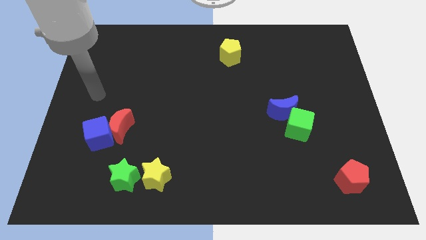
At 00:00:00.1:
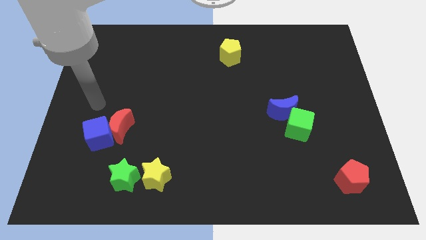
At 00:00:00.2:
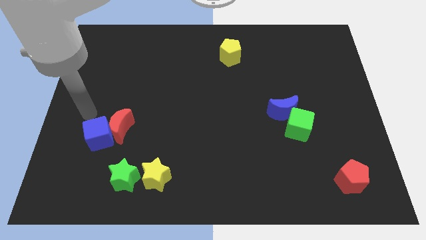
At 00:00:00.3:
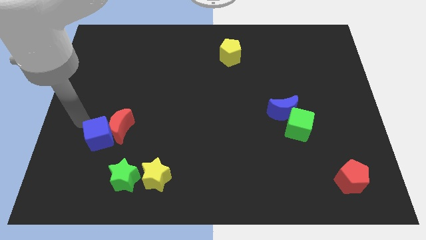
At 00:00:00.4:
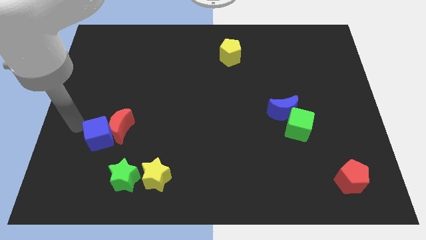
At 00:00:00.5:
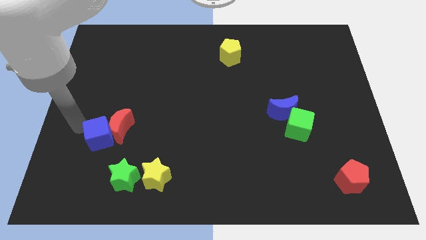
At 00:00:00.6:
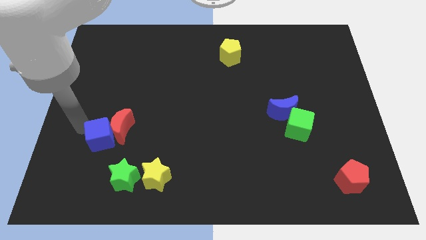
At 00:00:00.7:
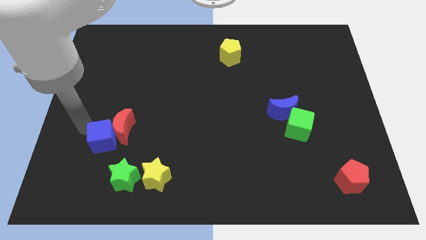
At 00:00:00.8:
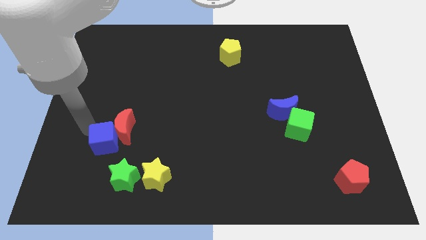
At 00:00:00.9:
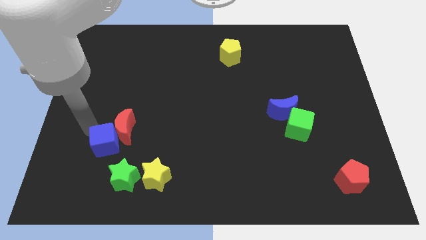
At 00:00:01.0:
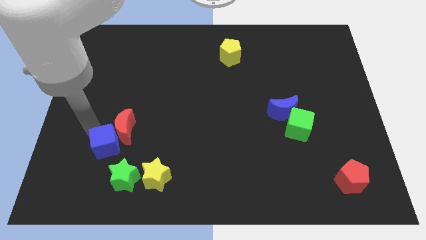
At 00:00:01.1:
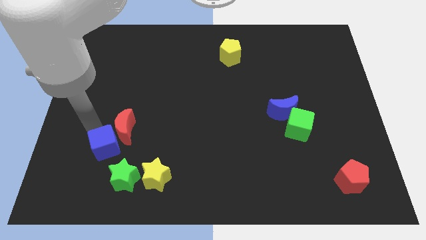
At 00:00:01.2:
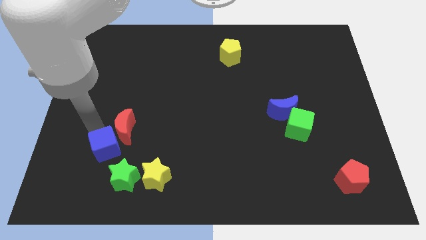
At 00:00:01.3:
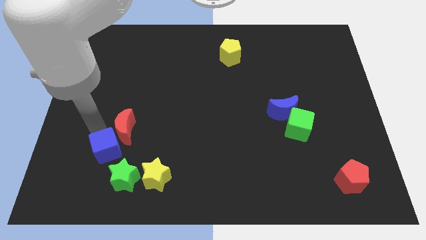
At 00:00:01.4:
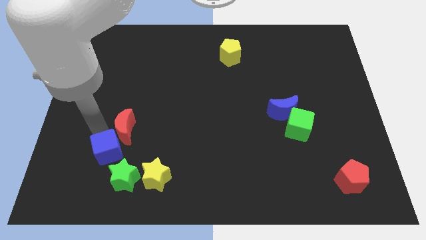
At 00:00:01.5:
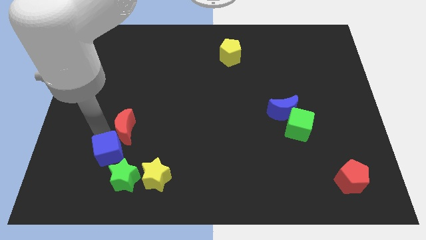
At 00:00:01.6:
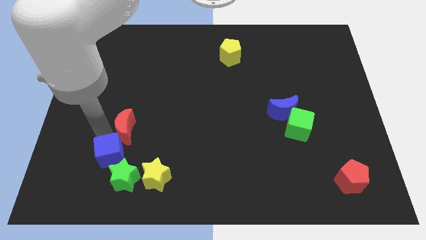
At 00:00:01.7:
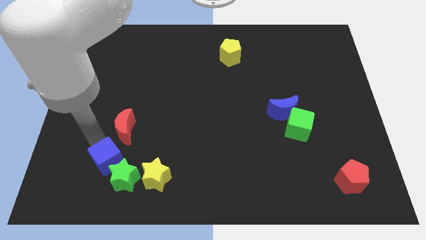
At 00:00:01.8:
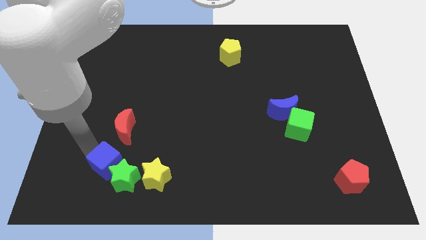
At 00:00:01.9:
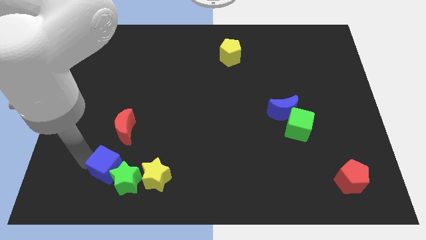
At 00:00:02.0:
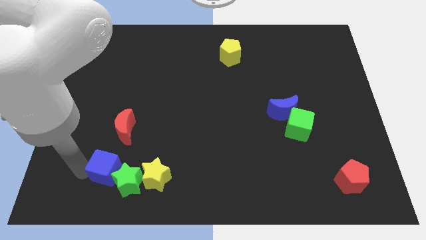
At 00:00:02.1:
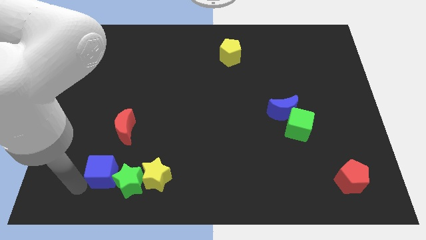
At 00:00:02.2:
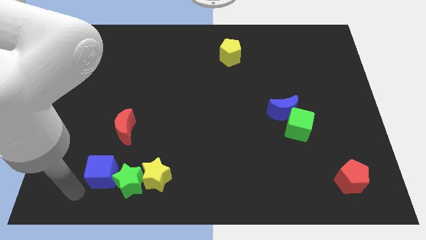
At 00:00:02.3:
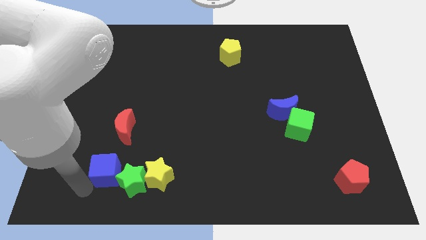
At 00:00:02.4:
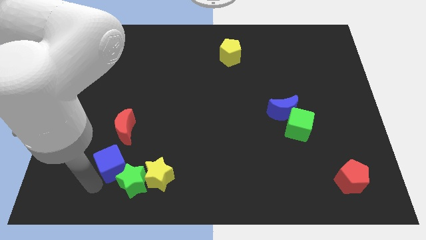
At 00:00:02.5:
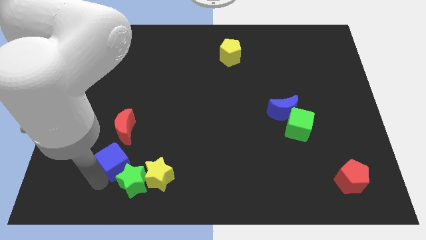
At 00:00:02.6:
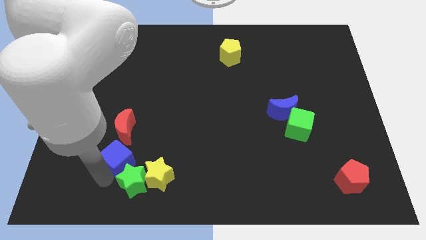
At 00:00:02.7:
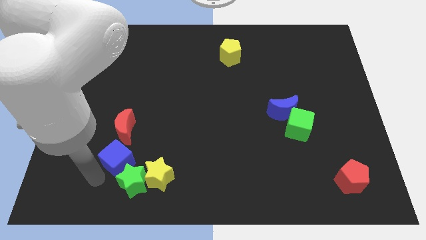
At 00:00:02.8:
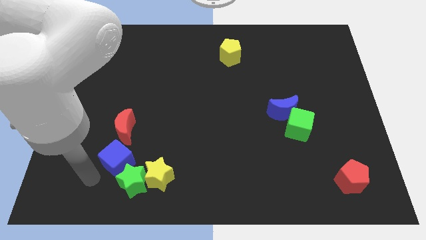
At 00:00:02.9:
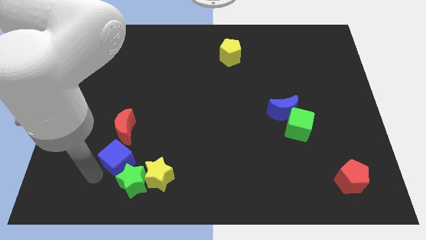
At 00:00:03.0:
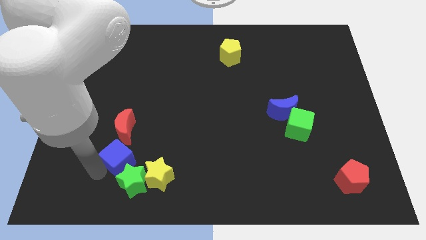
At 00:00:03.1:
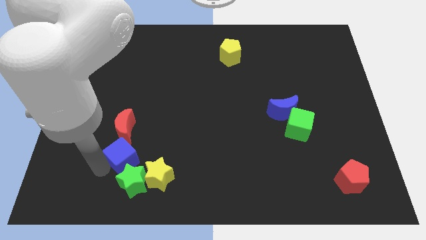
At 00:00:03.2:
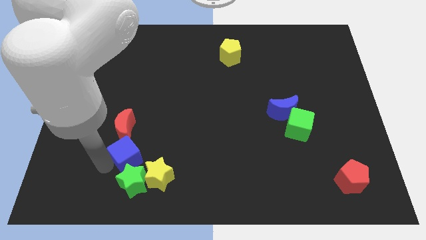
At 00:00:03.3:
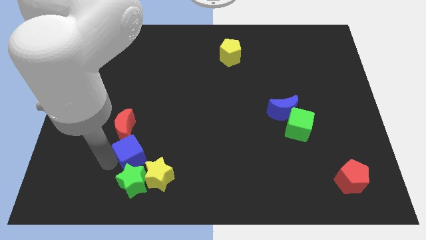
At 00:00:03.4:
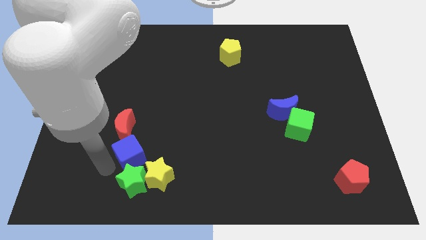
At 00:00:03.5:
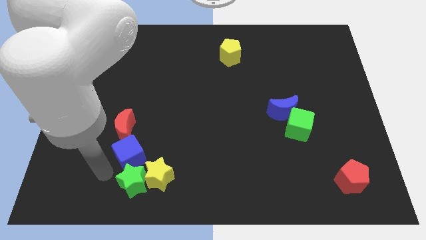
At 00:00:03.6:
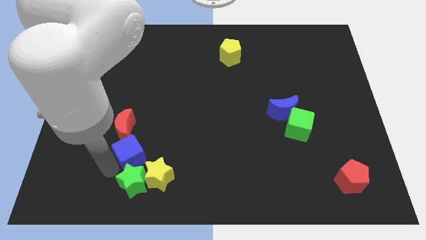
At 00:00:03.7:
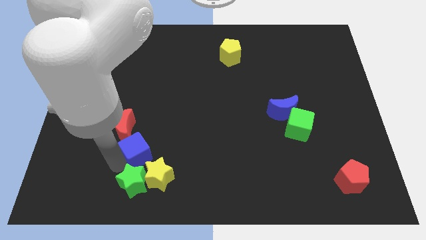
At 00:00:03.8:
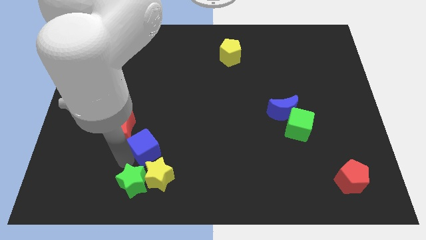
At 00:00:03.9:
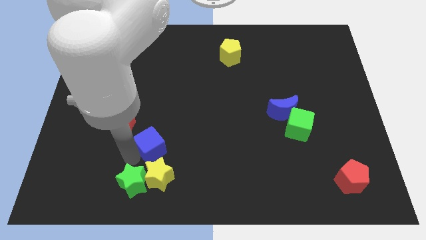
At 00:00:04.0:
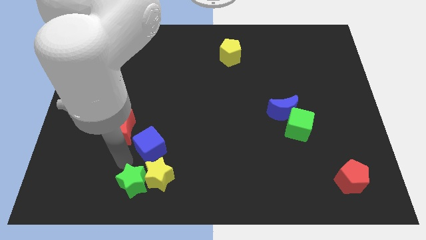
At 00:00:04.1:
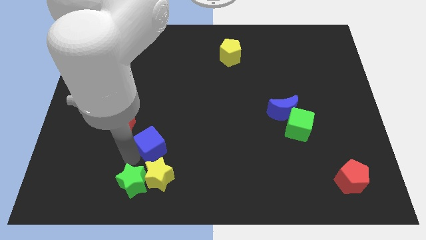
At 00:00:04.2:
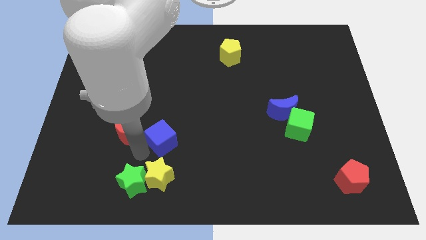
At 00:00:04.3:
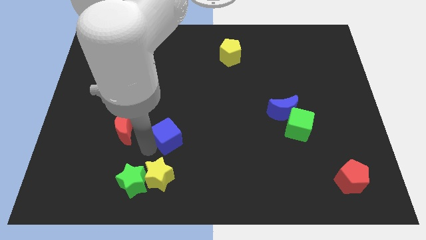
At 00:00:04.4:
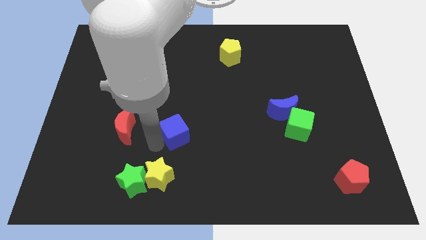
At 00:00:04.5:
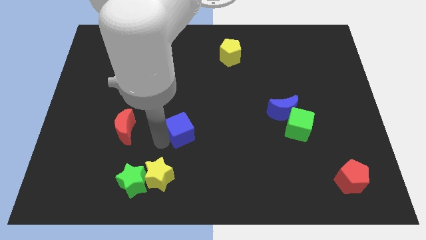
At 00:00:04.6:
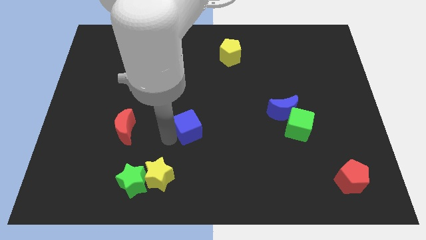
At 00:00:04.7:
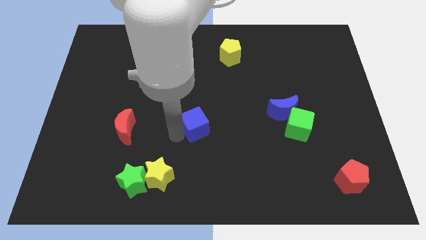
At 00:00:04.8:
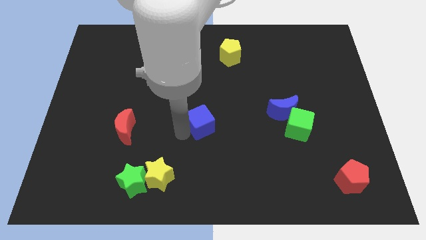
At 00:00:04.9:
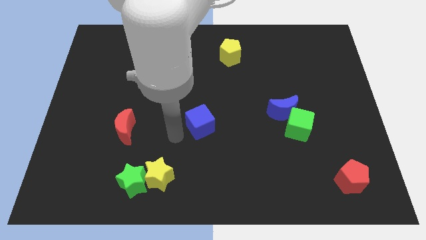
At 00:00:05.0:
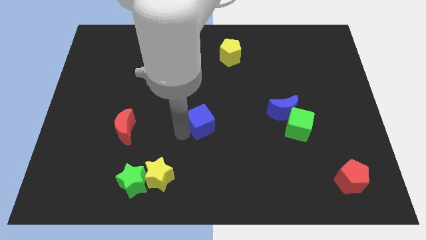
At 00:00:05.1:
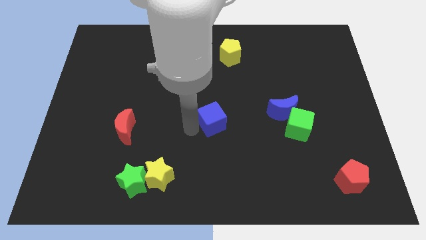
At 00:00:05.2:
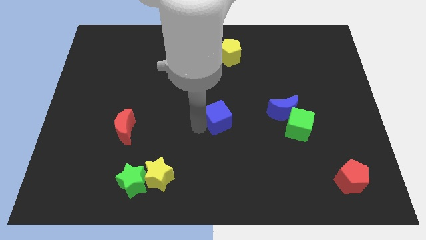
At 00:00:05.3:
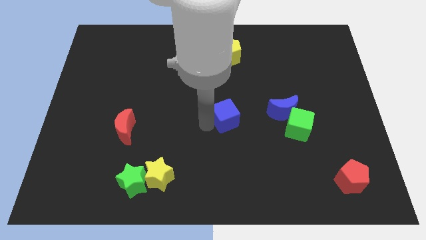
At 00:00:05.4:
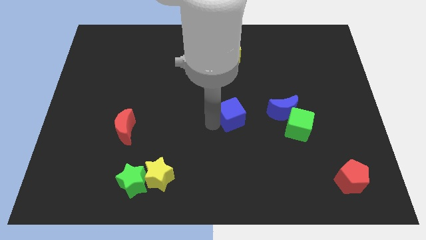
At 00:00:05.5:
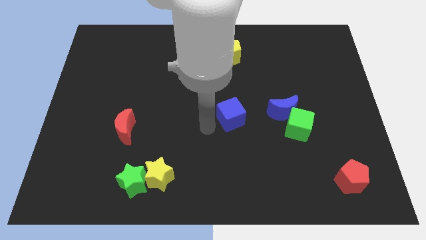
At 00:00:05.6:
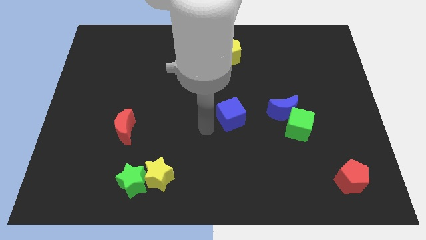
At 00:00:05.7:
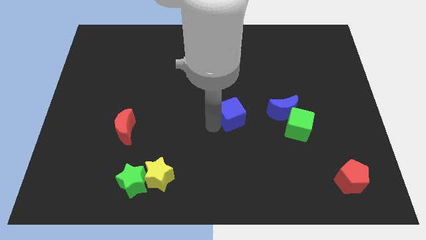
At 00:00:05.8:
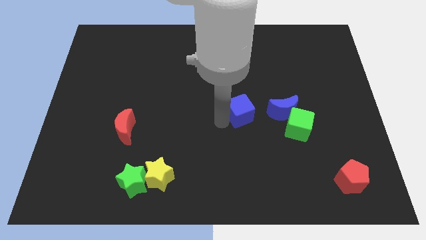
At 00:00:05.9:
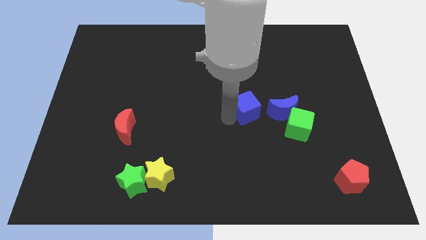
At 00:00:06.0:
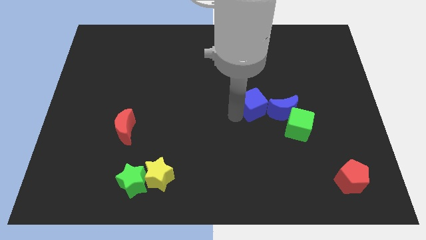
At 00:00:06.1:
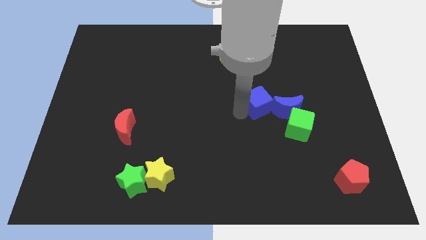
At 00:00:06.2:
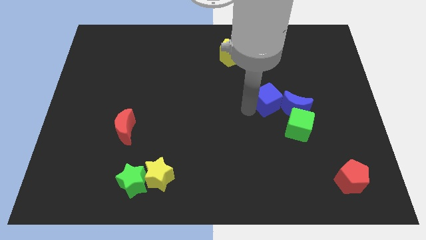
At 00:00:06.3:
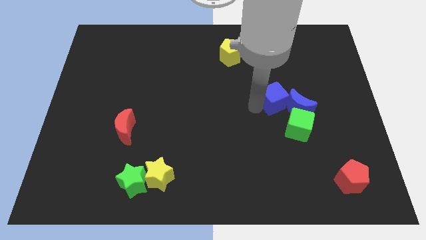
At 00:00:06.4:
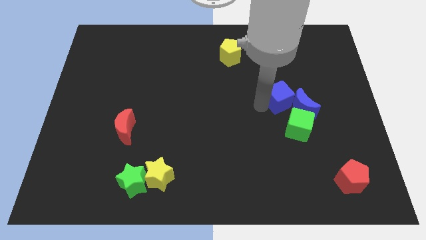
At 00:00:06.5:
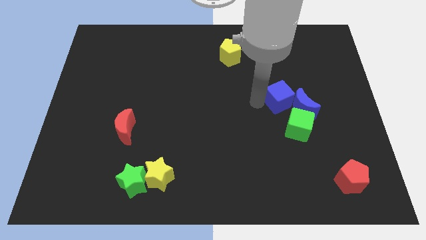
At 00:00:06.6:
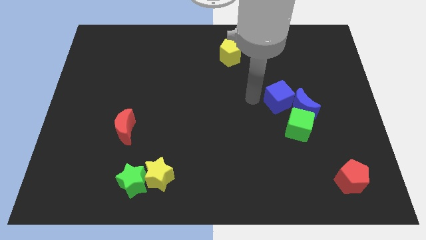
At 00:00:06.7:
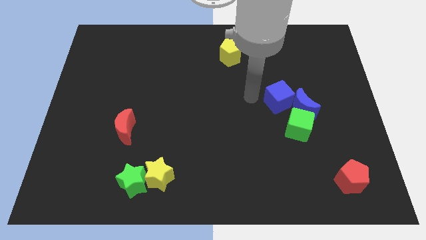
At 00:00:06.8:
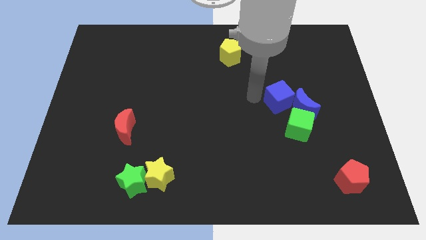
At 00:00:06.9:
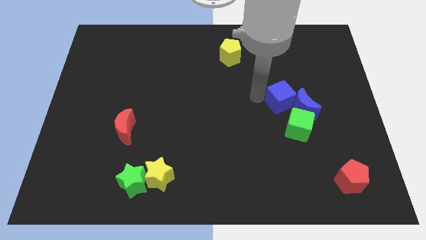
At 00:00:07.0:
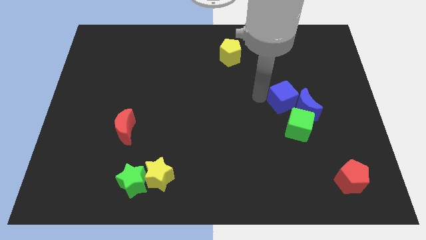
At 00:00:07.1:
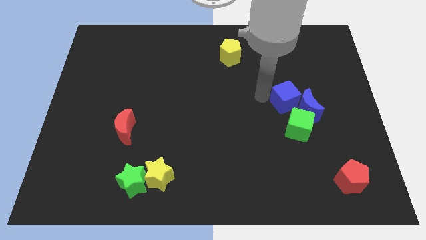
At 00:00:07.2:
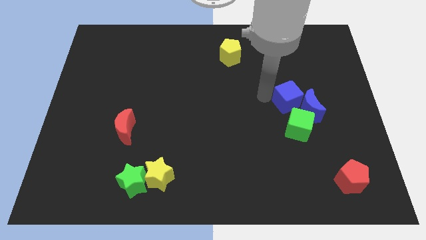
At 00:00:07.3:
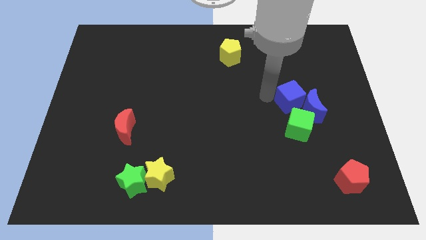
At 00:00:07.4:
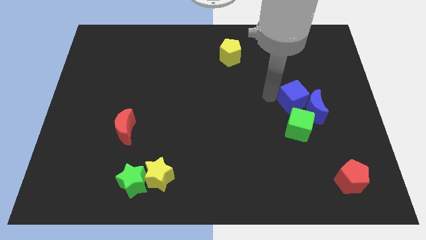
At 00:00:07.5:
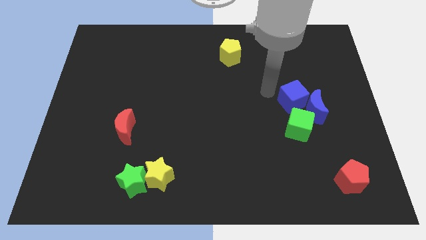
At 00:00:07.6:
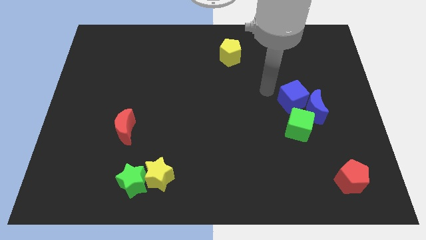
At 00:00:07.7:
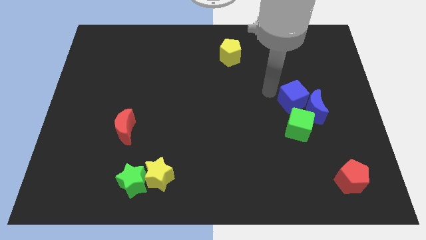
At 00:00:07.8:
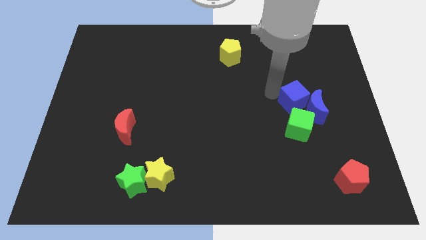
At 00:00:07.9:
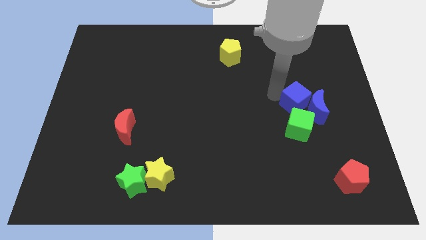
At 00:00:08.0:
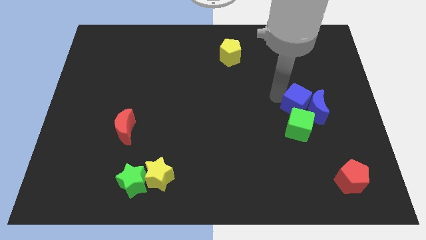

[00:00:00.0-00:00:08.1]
slide the blue cube to the top right of the green cube
